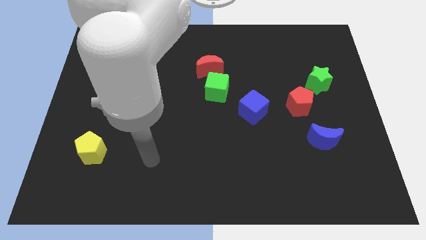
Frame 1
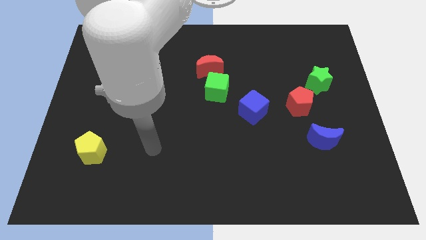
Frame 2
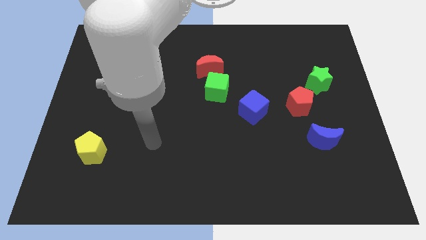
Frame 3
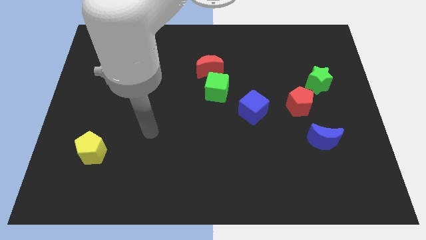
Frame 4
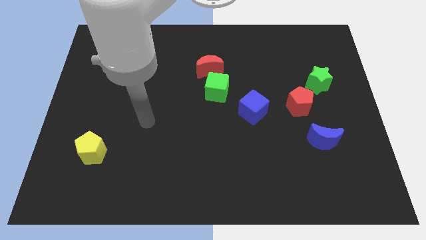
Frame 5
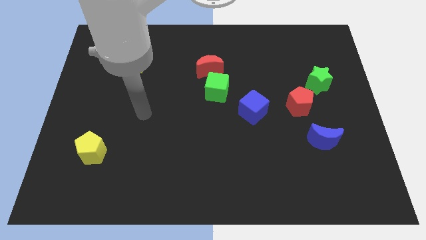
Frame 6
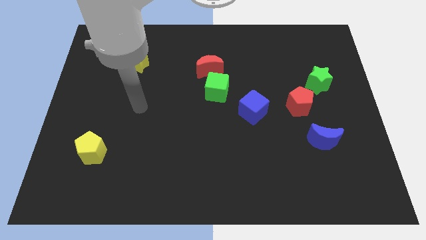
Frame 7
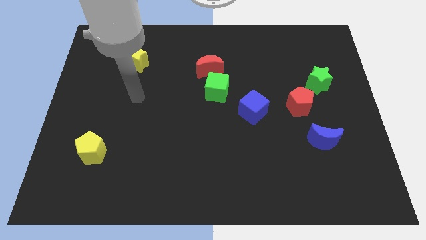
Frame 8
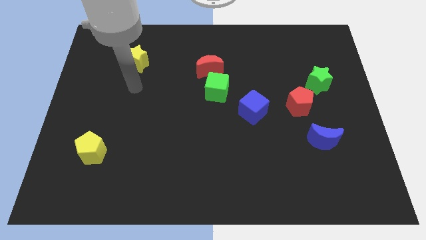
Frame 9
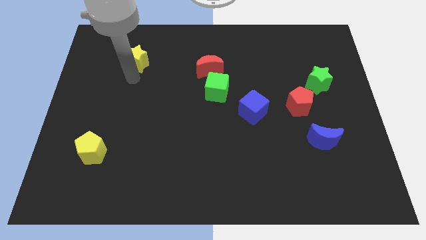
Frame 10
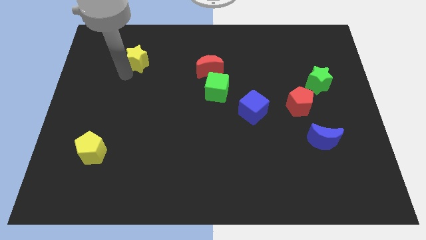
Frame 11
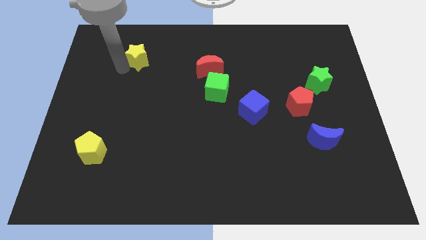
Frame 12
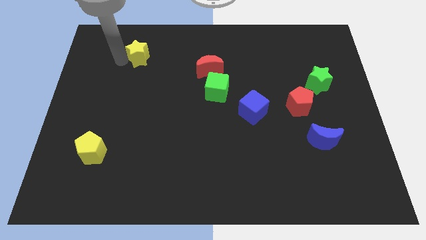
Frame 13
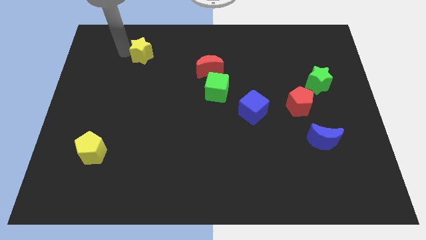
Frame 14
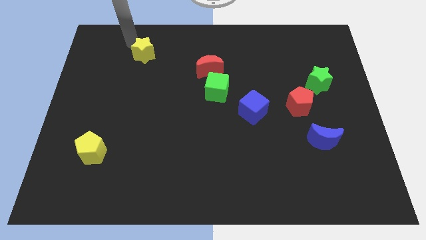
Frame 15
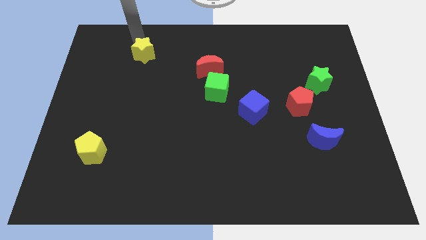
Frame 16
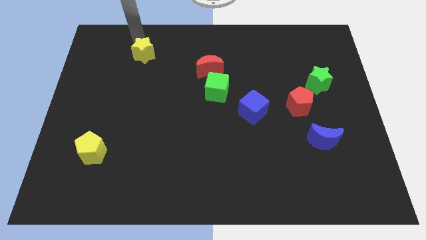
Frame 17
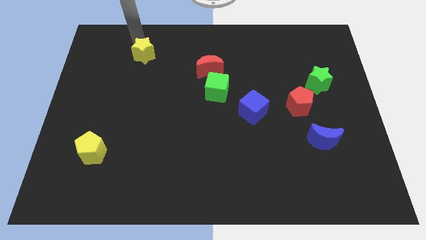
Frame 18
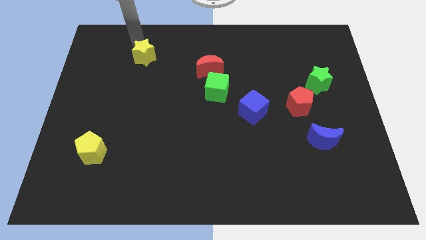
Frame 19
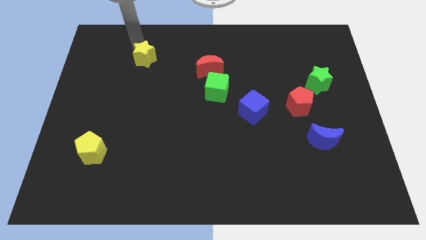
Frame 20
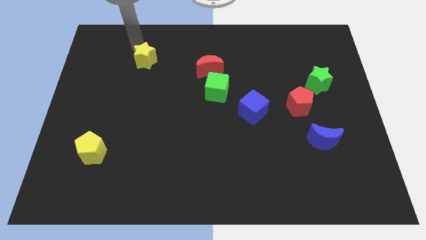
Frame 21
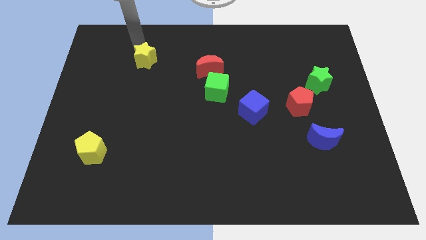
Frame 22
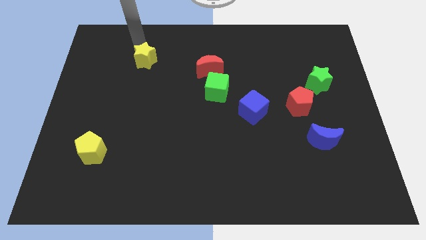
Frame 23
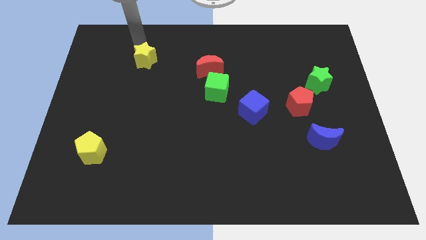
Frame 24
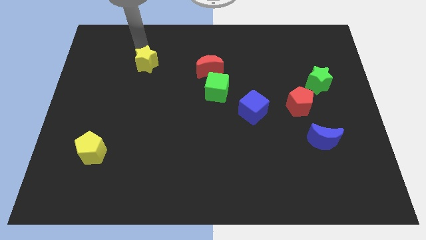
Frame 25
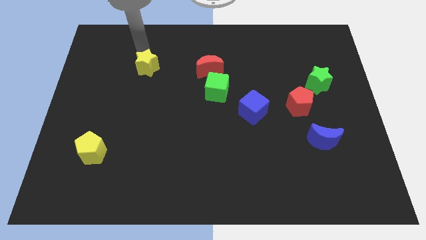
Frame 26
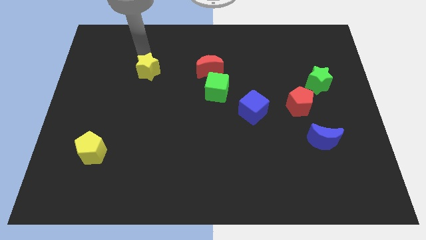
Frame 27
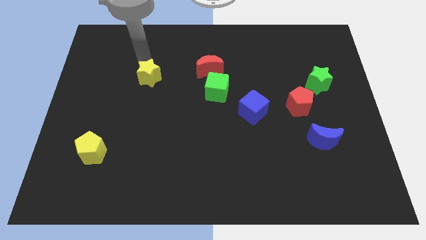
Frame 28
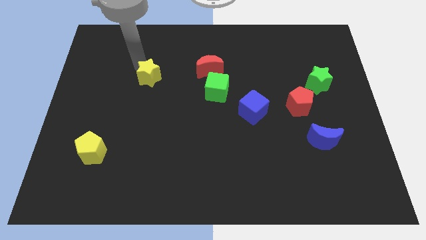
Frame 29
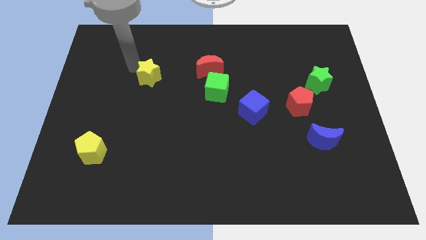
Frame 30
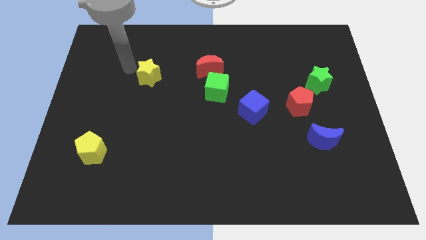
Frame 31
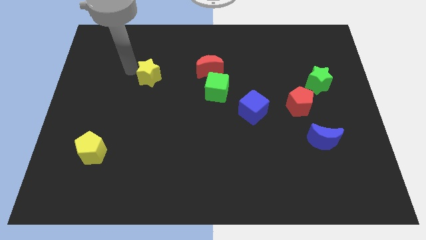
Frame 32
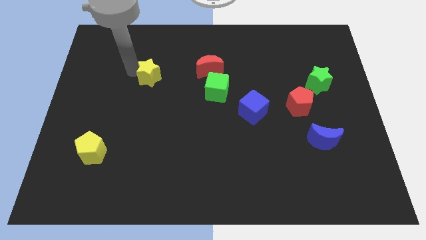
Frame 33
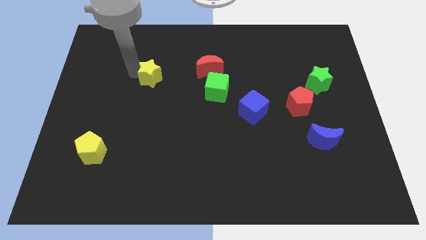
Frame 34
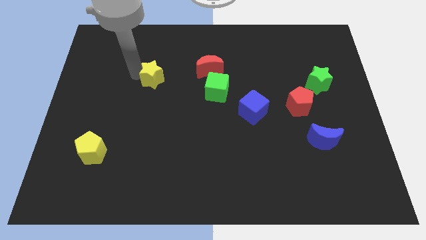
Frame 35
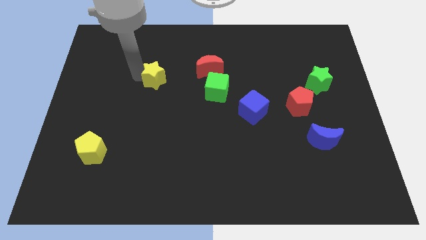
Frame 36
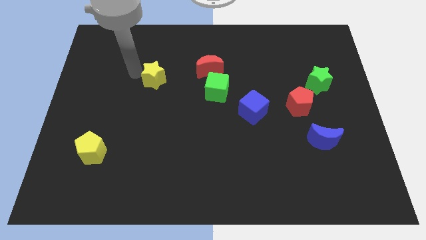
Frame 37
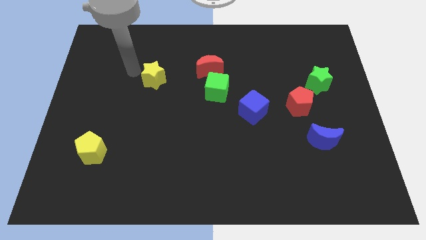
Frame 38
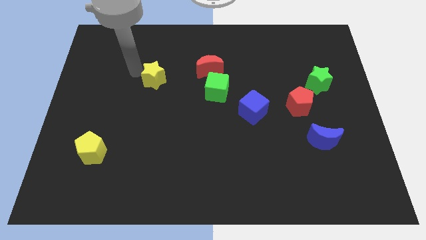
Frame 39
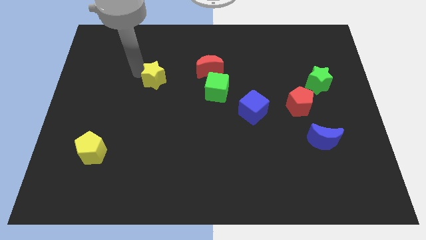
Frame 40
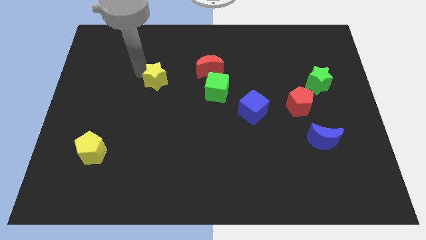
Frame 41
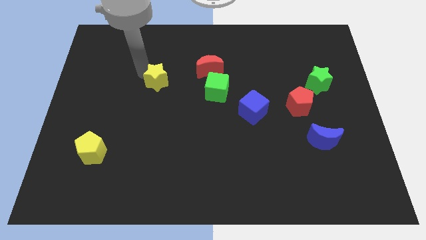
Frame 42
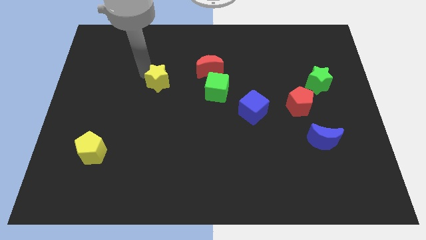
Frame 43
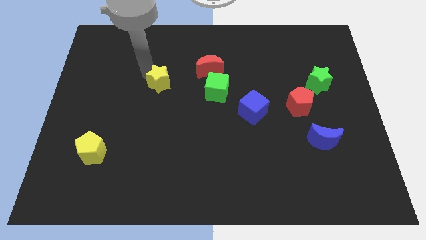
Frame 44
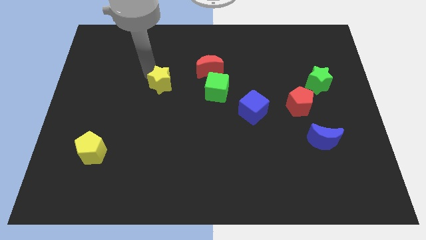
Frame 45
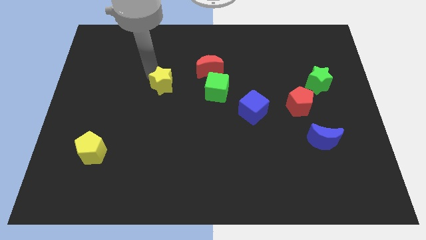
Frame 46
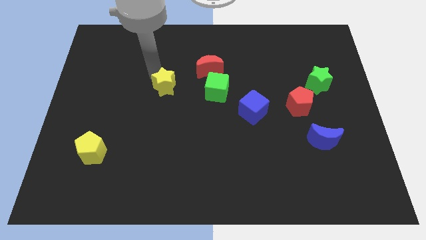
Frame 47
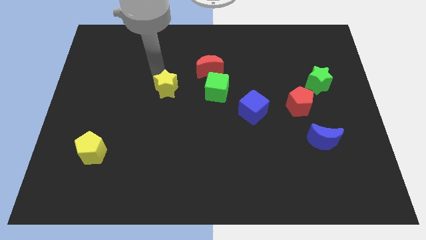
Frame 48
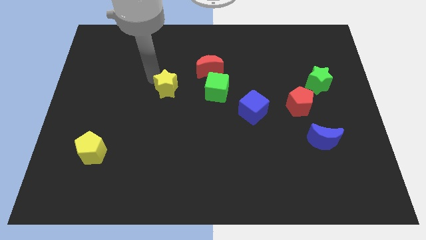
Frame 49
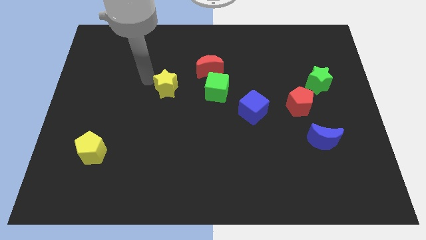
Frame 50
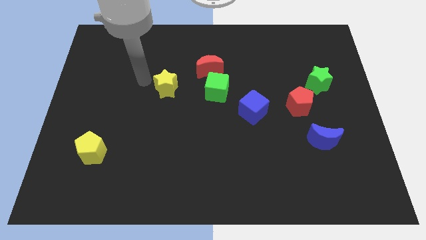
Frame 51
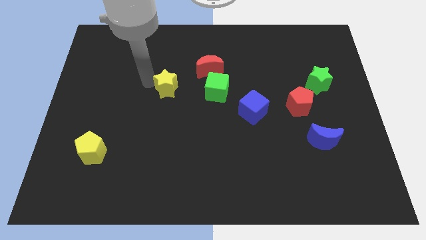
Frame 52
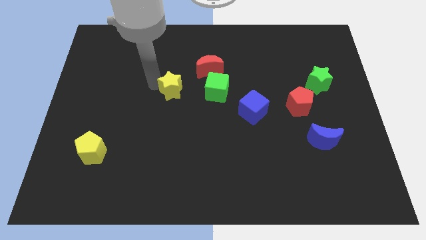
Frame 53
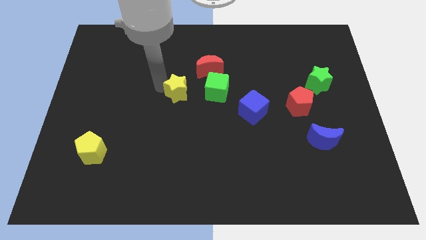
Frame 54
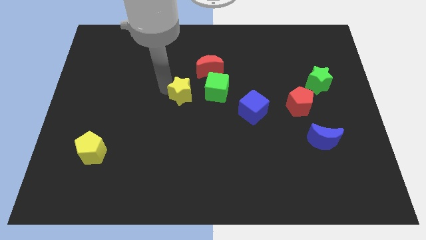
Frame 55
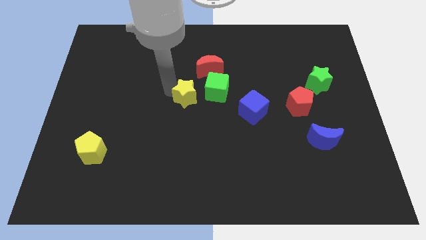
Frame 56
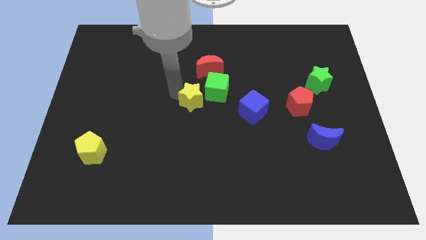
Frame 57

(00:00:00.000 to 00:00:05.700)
move the yellow star below the red moon

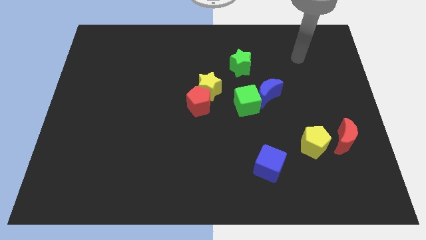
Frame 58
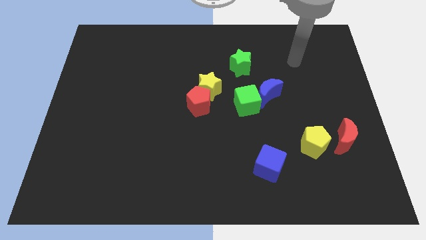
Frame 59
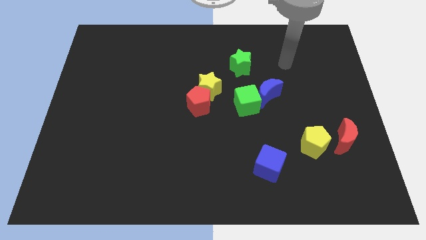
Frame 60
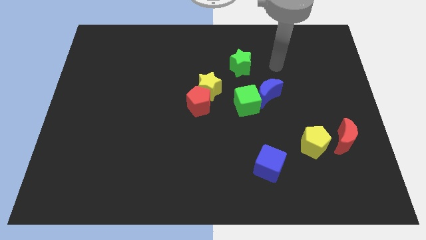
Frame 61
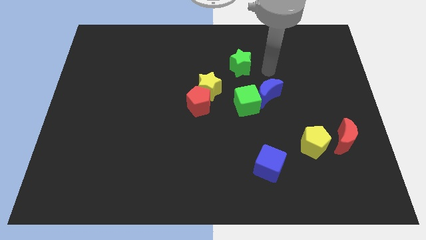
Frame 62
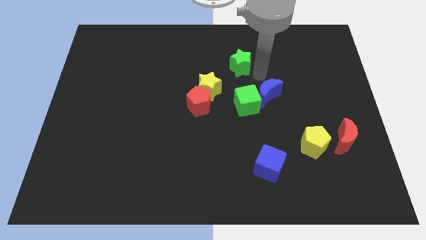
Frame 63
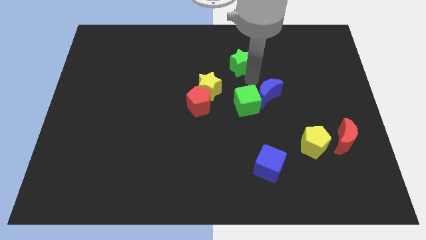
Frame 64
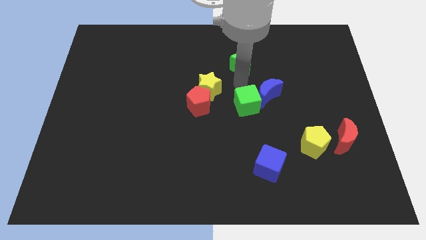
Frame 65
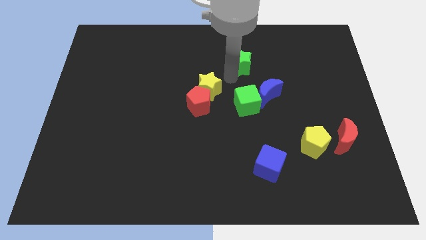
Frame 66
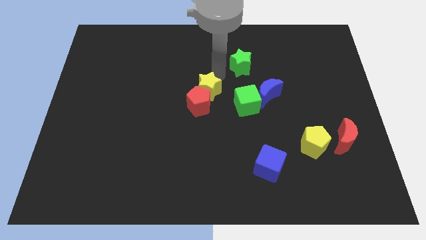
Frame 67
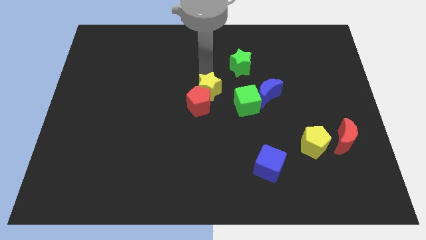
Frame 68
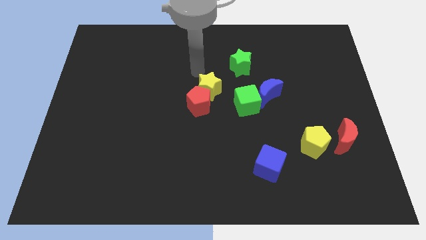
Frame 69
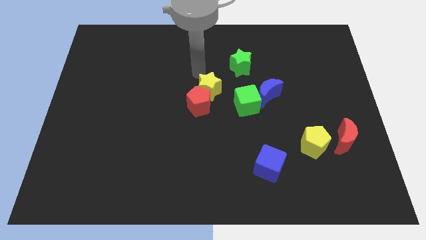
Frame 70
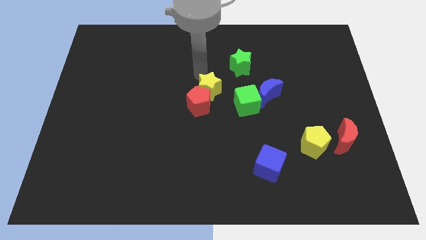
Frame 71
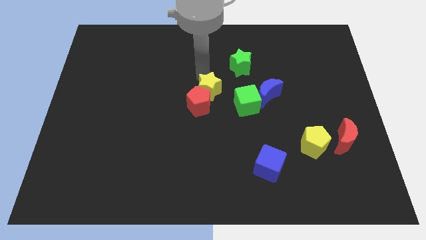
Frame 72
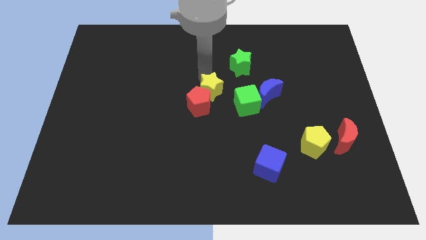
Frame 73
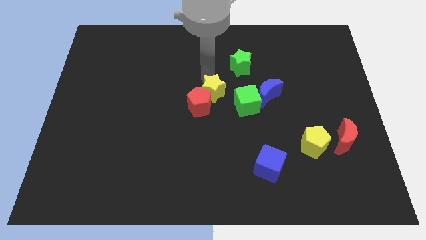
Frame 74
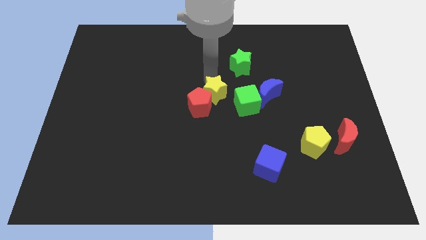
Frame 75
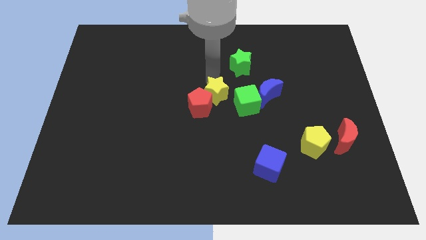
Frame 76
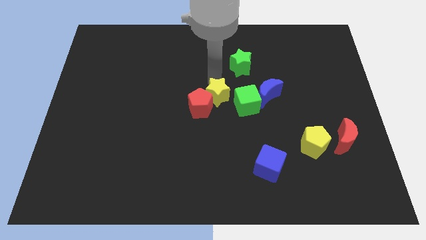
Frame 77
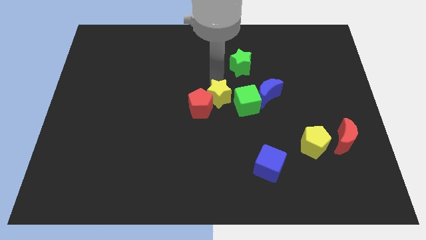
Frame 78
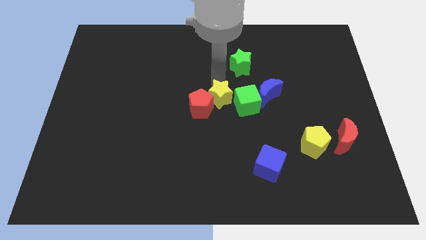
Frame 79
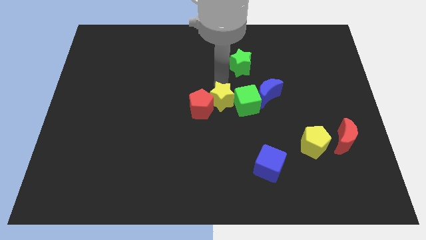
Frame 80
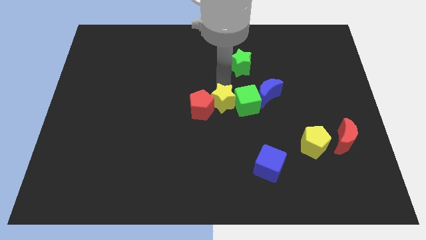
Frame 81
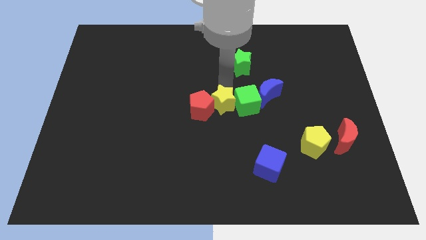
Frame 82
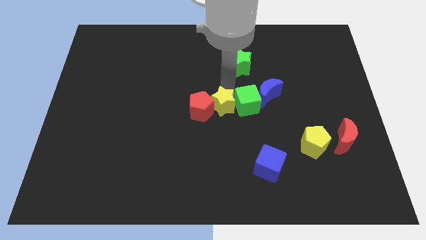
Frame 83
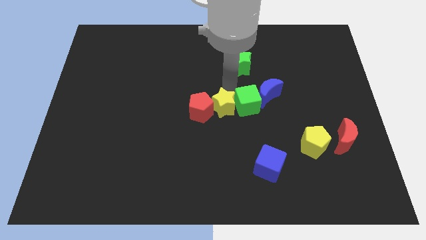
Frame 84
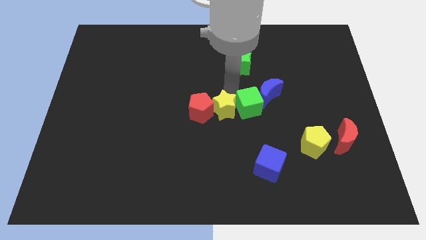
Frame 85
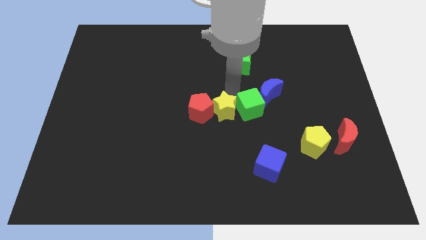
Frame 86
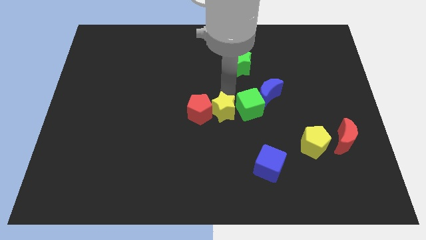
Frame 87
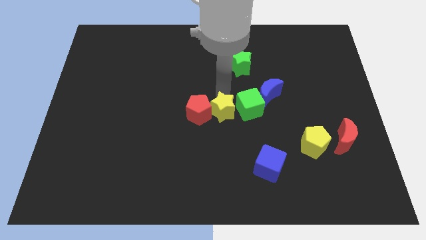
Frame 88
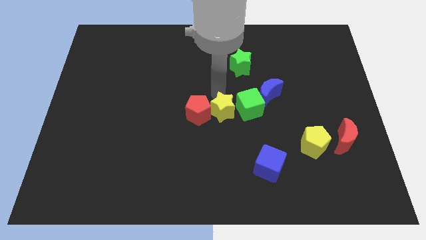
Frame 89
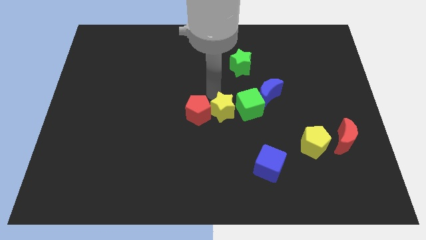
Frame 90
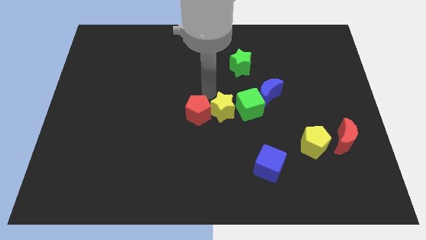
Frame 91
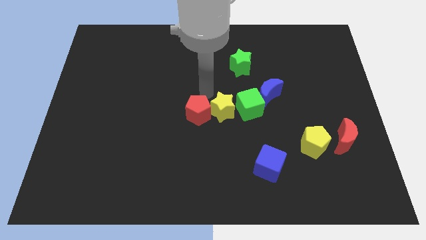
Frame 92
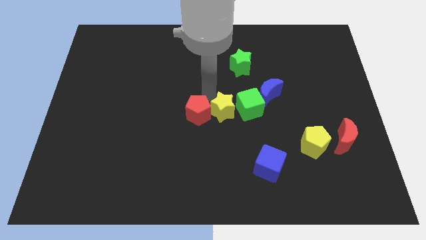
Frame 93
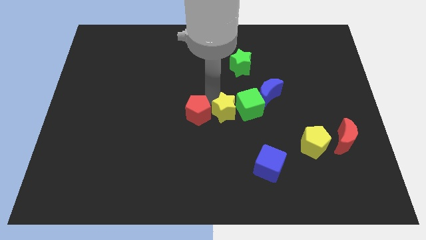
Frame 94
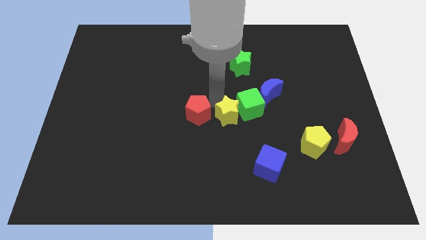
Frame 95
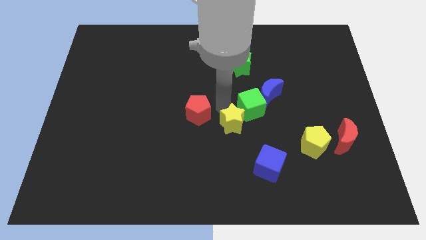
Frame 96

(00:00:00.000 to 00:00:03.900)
slide the yellow star to the bottom side of the green cube
